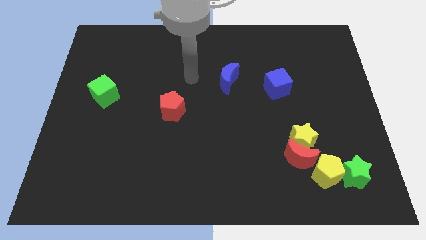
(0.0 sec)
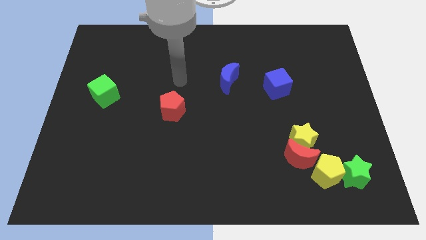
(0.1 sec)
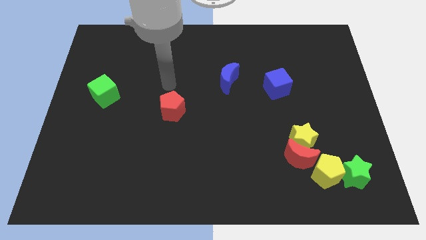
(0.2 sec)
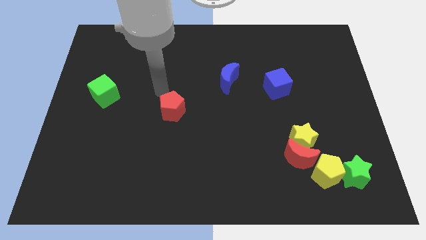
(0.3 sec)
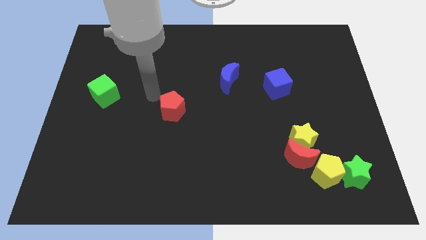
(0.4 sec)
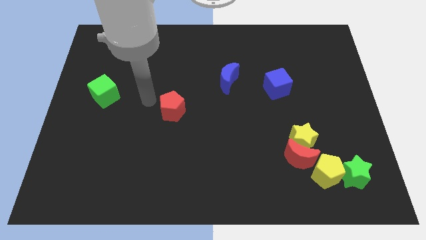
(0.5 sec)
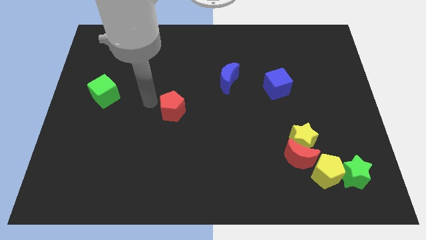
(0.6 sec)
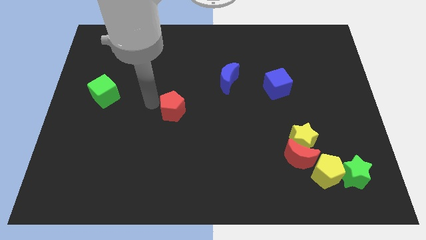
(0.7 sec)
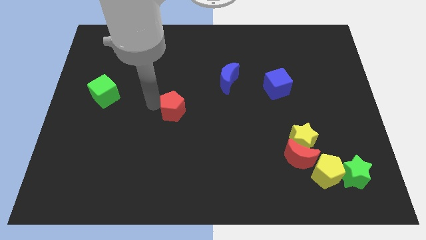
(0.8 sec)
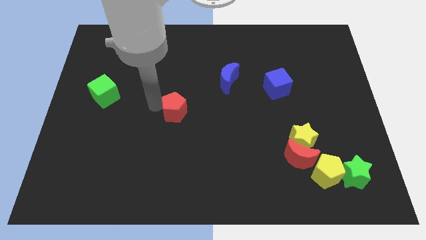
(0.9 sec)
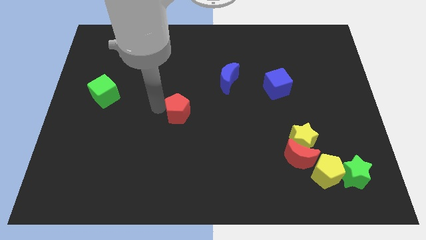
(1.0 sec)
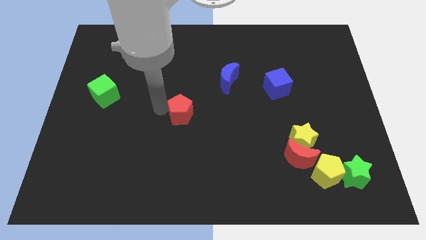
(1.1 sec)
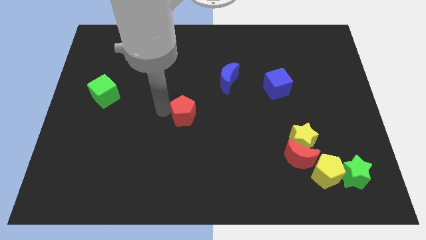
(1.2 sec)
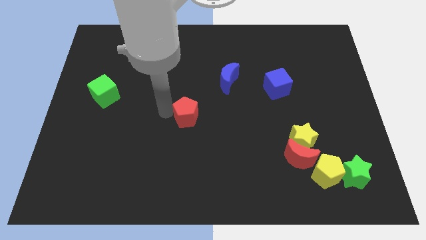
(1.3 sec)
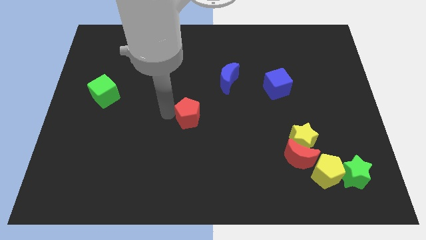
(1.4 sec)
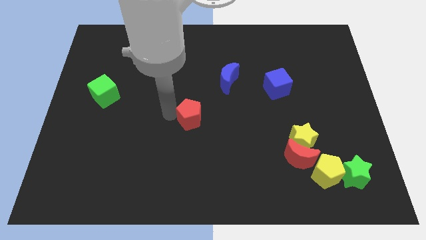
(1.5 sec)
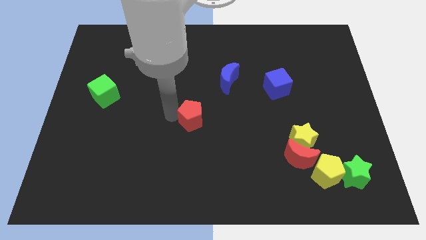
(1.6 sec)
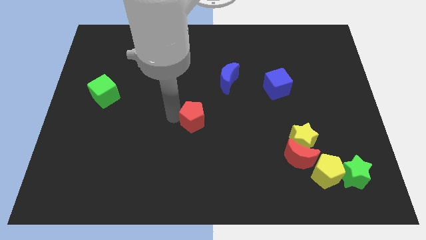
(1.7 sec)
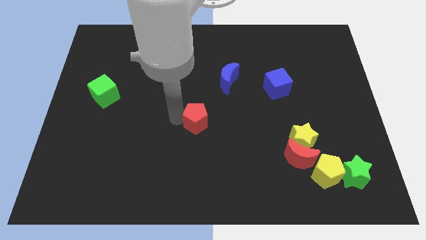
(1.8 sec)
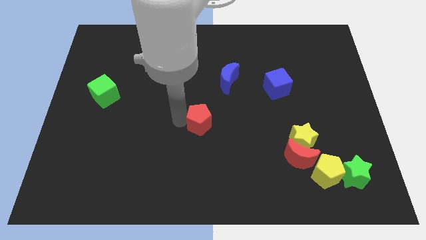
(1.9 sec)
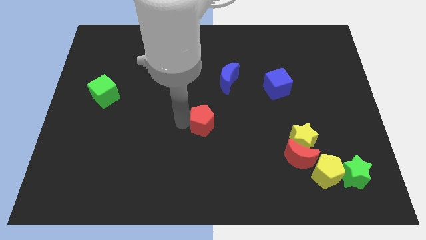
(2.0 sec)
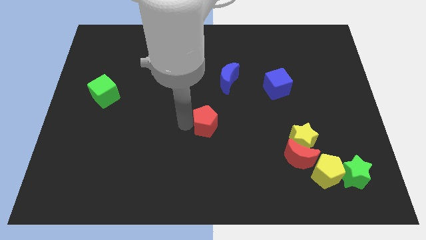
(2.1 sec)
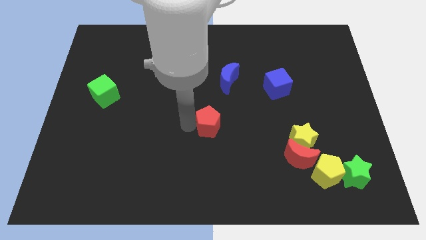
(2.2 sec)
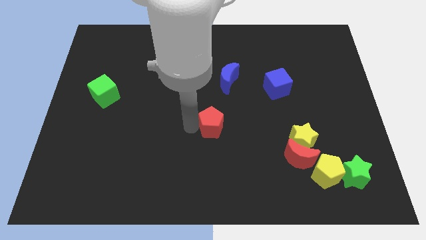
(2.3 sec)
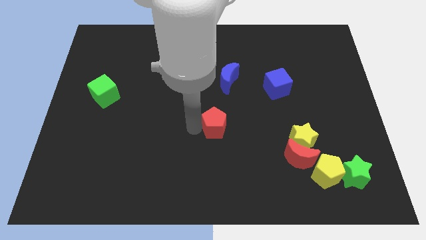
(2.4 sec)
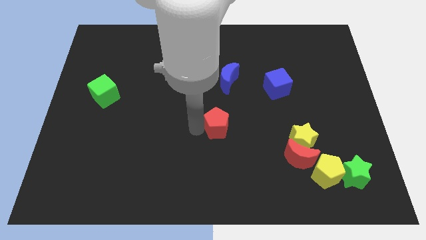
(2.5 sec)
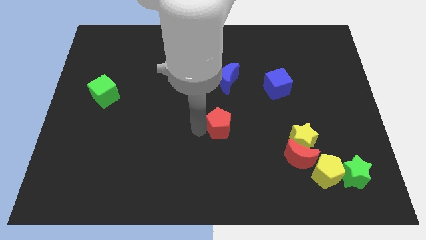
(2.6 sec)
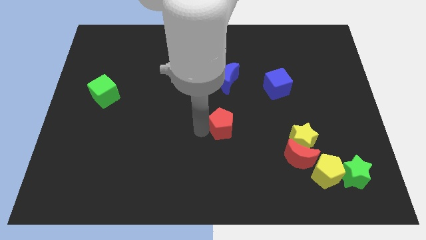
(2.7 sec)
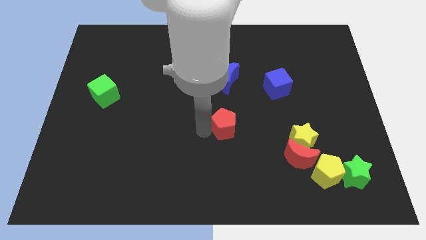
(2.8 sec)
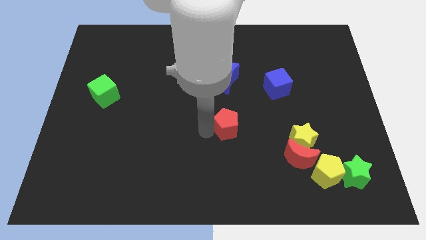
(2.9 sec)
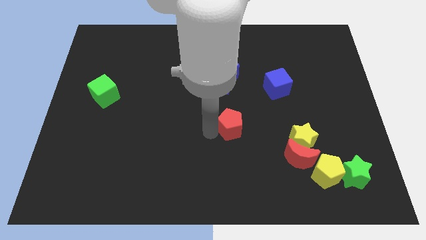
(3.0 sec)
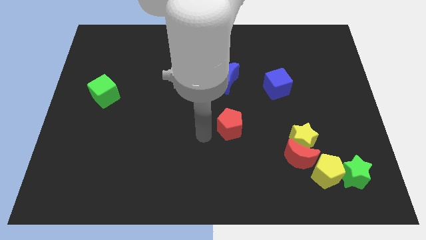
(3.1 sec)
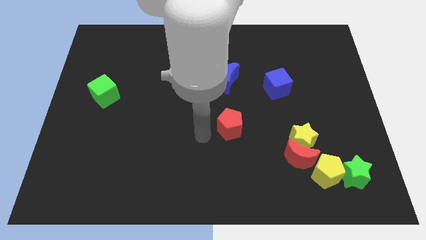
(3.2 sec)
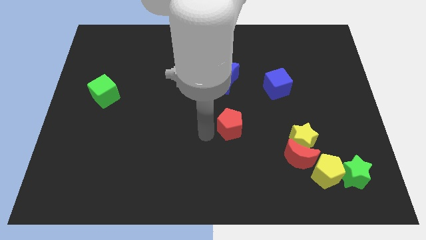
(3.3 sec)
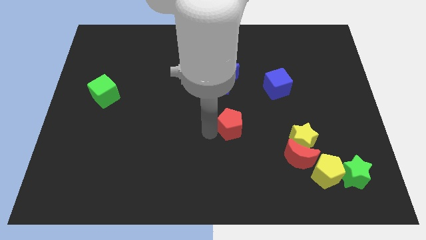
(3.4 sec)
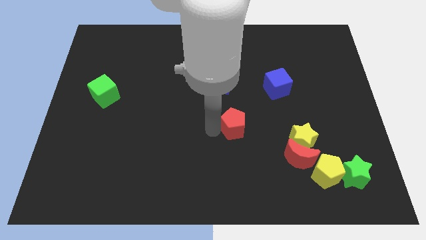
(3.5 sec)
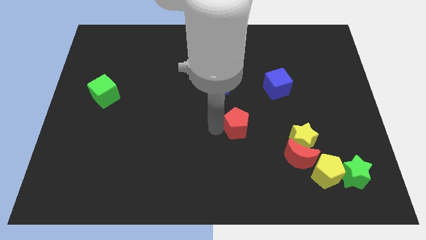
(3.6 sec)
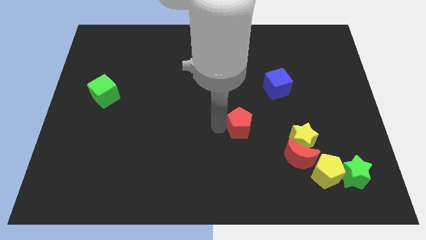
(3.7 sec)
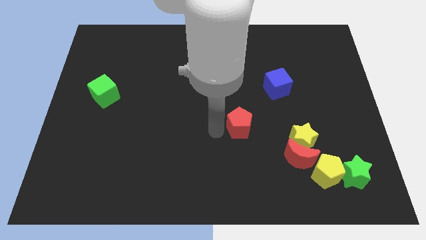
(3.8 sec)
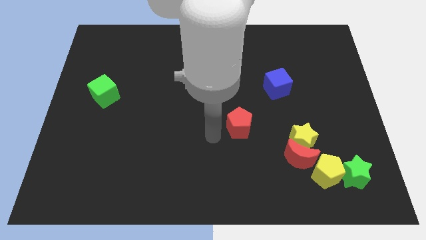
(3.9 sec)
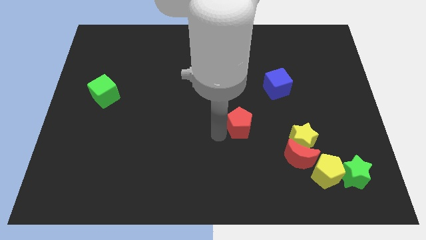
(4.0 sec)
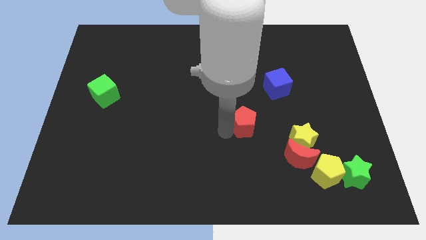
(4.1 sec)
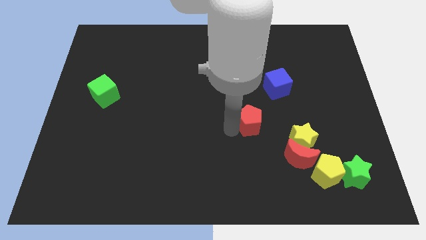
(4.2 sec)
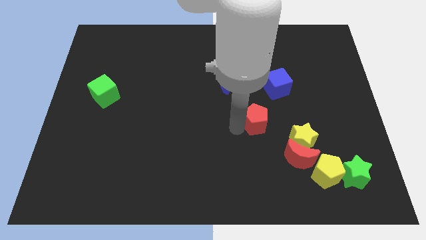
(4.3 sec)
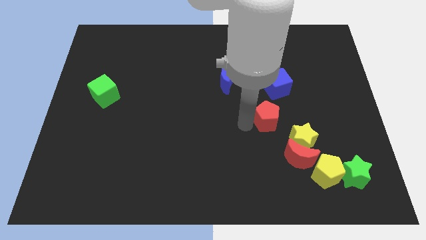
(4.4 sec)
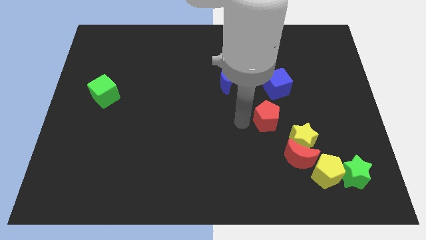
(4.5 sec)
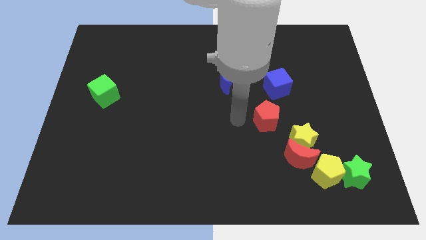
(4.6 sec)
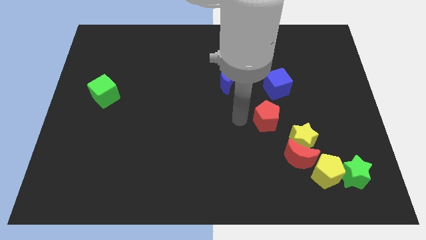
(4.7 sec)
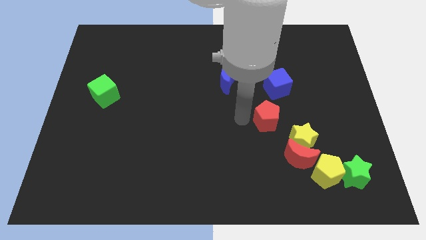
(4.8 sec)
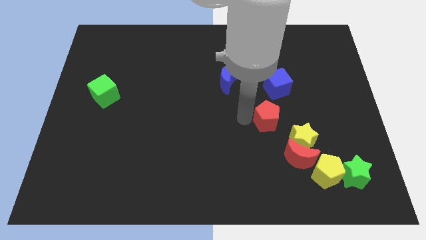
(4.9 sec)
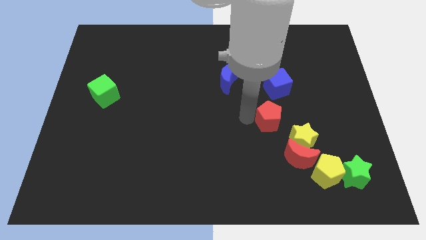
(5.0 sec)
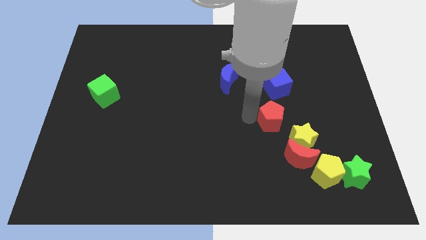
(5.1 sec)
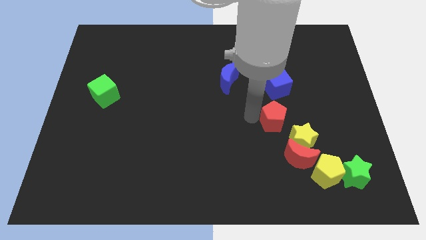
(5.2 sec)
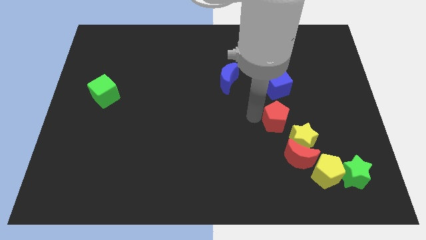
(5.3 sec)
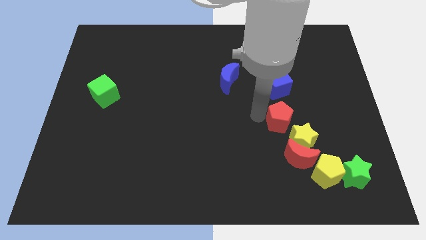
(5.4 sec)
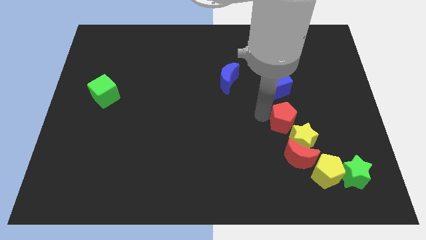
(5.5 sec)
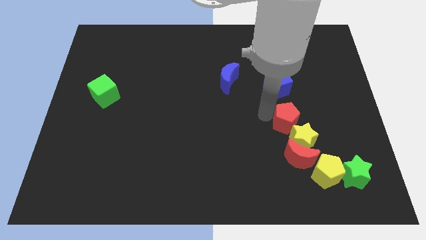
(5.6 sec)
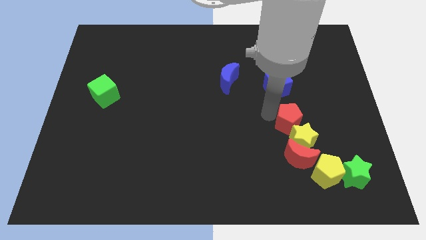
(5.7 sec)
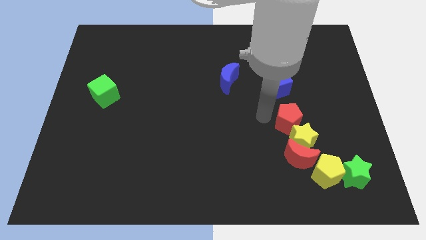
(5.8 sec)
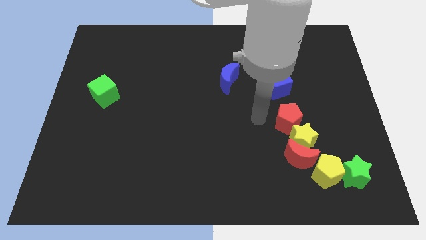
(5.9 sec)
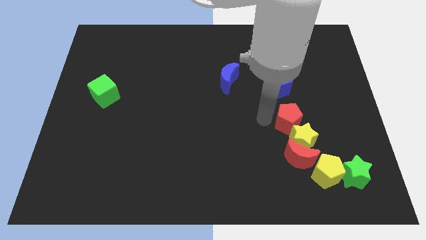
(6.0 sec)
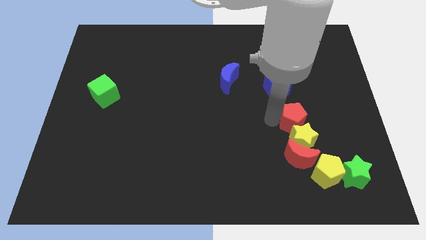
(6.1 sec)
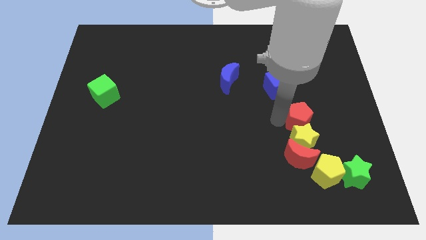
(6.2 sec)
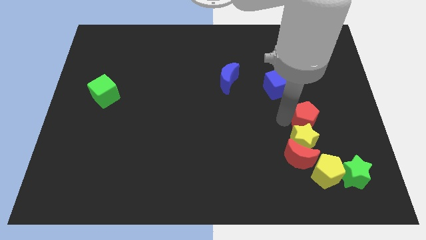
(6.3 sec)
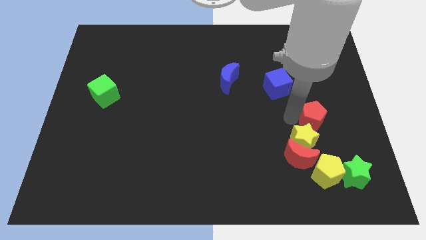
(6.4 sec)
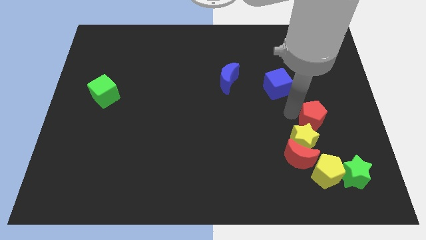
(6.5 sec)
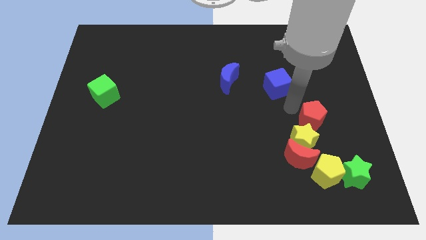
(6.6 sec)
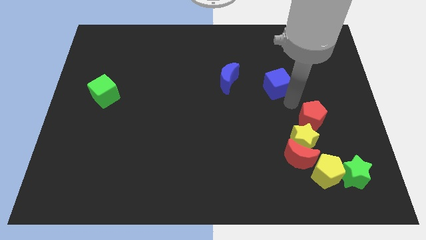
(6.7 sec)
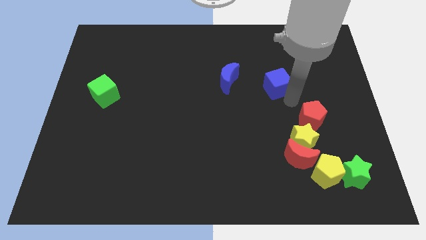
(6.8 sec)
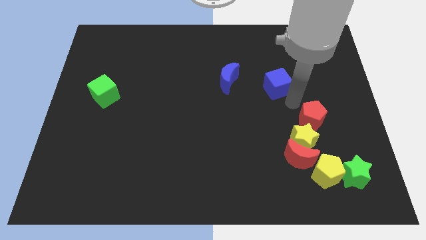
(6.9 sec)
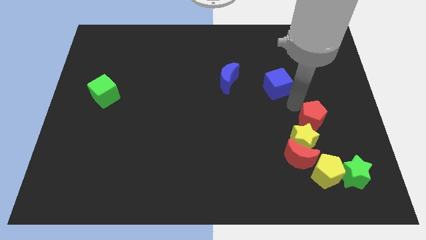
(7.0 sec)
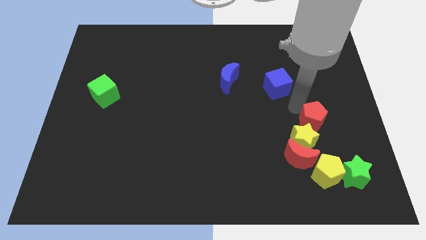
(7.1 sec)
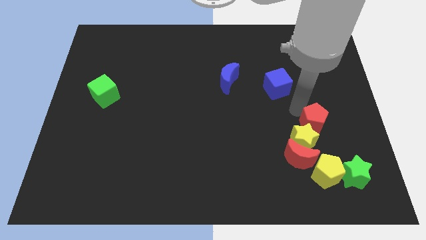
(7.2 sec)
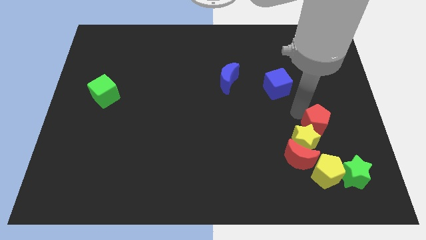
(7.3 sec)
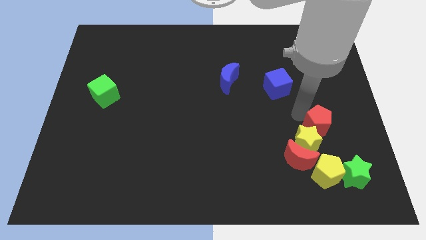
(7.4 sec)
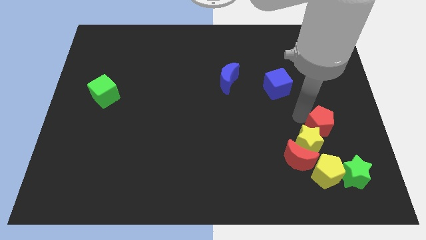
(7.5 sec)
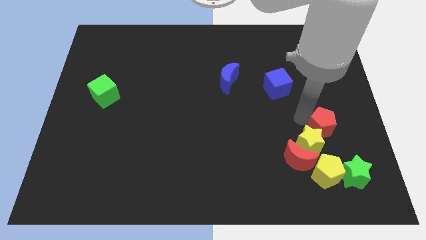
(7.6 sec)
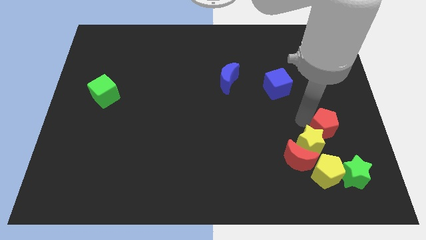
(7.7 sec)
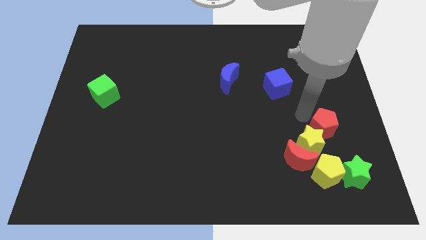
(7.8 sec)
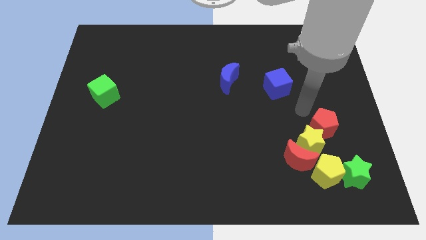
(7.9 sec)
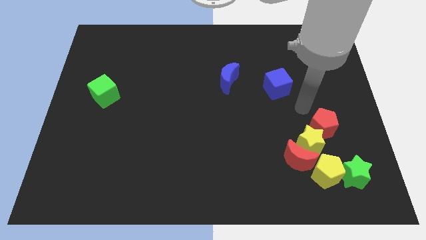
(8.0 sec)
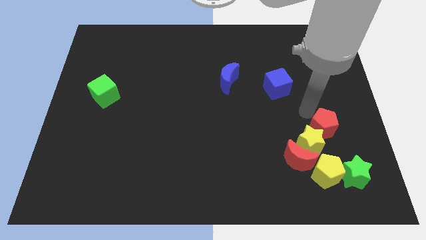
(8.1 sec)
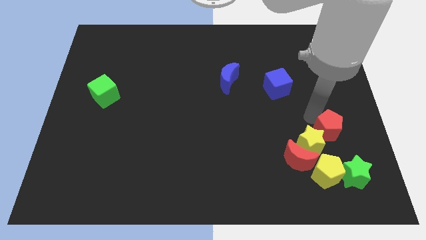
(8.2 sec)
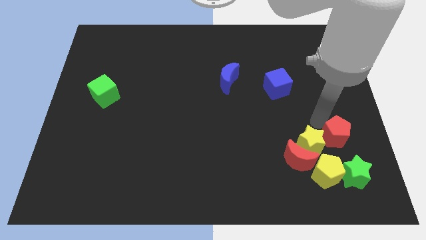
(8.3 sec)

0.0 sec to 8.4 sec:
push the red pentagon diagonally up and to the right of the yellow pentagon

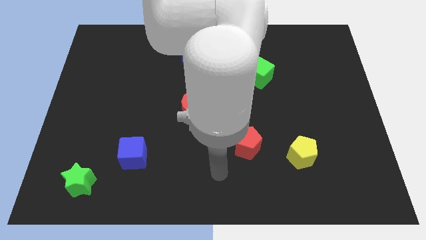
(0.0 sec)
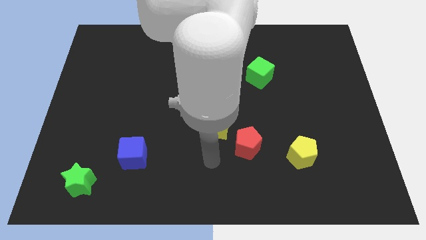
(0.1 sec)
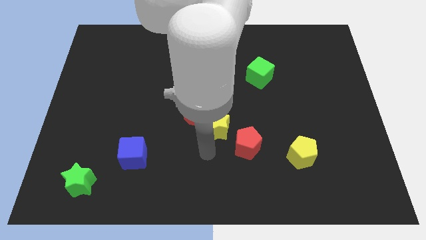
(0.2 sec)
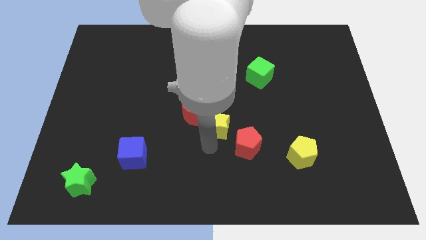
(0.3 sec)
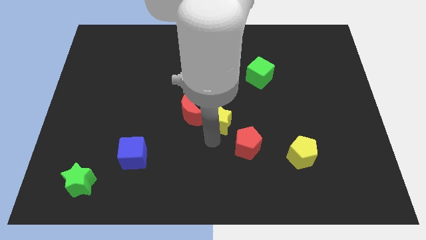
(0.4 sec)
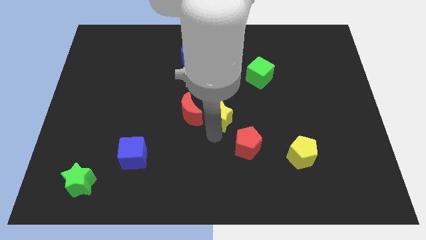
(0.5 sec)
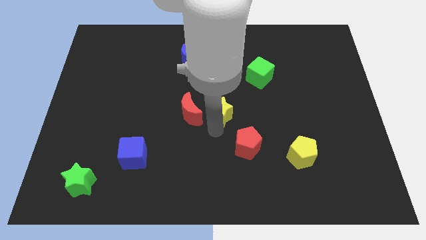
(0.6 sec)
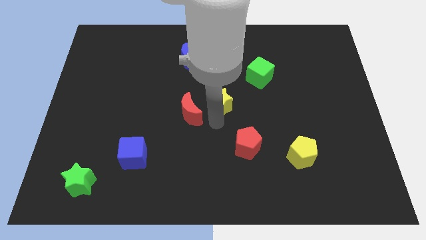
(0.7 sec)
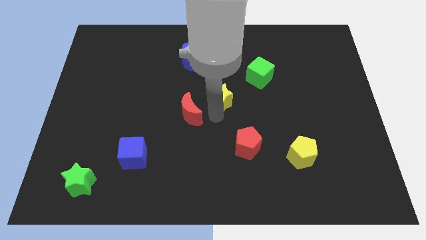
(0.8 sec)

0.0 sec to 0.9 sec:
put the yellow star to the bottom left side of the green cube
